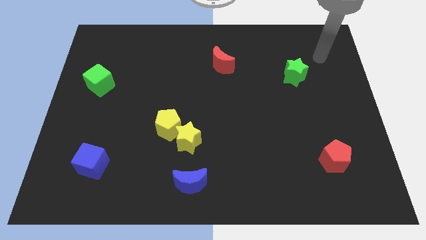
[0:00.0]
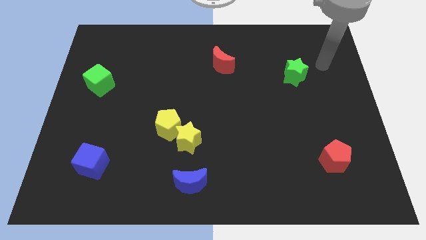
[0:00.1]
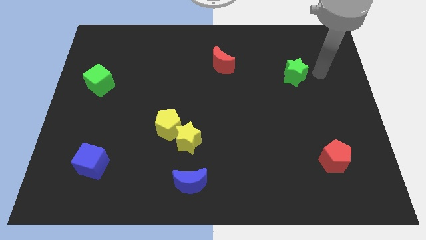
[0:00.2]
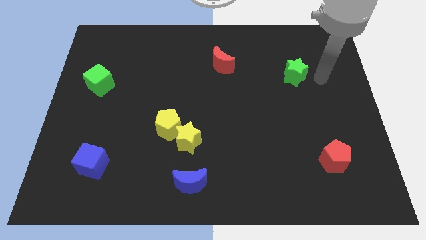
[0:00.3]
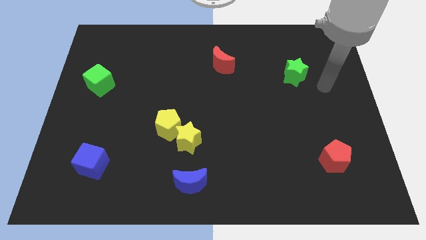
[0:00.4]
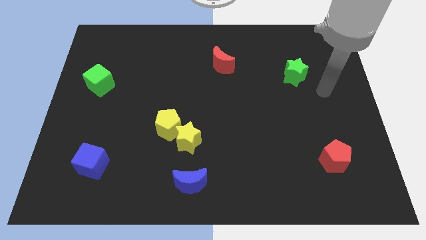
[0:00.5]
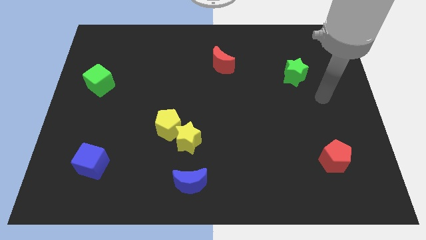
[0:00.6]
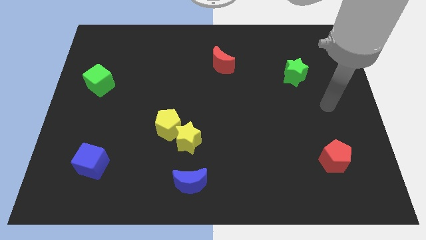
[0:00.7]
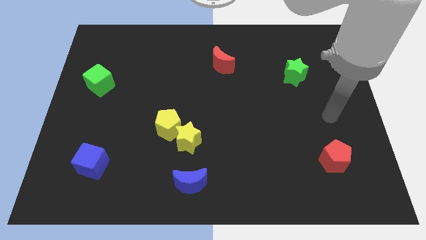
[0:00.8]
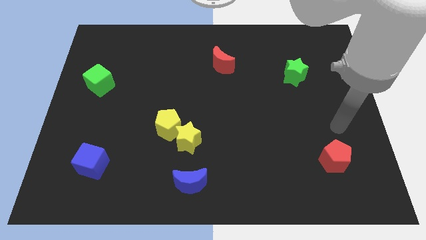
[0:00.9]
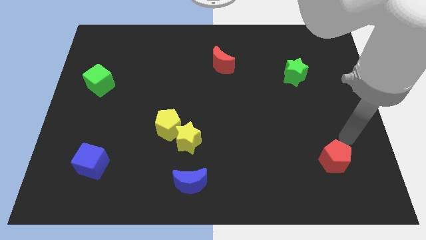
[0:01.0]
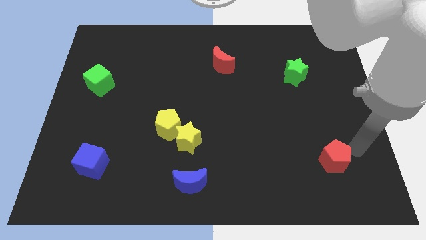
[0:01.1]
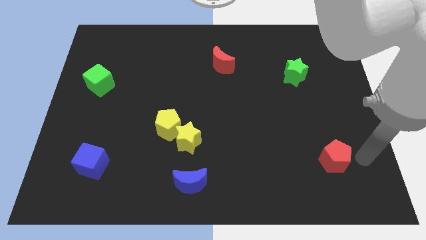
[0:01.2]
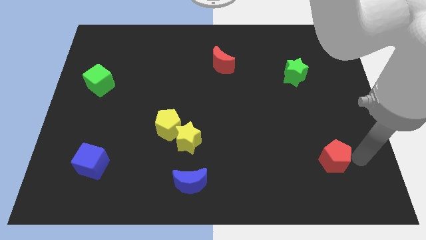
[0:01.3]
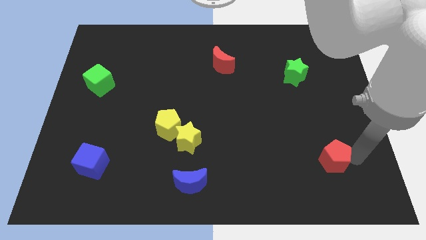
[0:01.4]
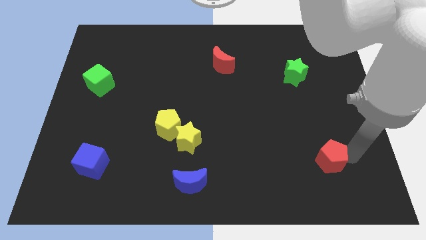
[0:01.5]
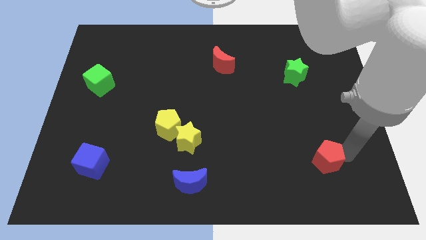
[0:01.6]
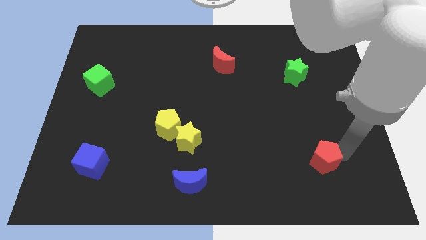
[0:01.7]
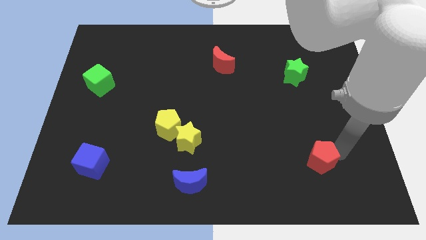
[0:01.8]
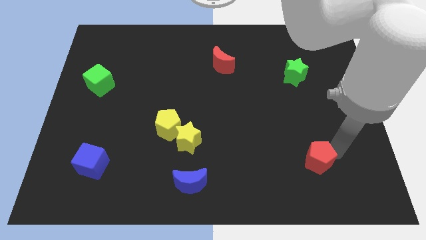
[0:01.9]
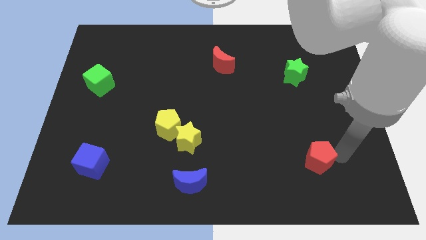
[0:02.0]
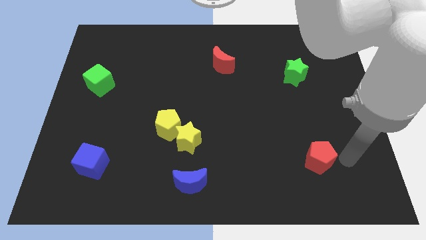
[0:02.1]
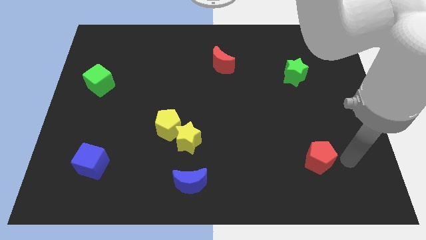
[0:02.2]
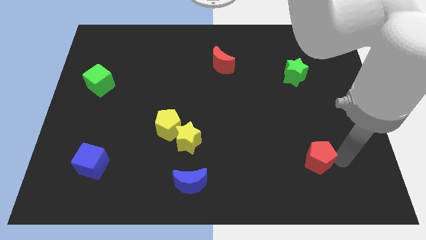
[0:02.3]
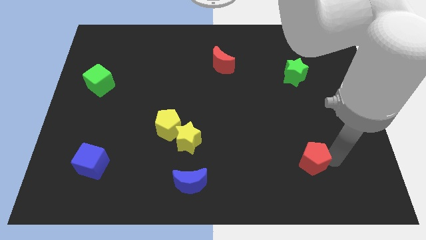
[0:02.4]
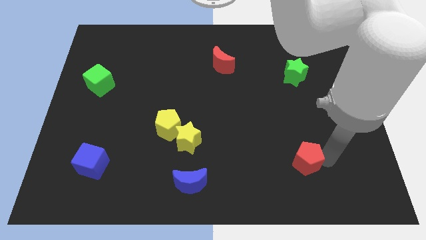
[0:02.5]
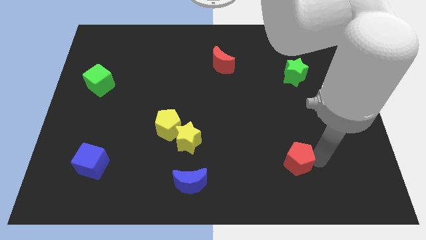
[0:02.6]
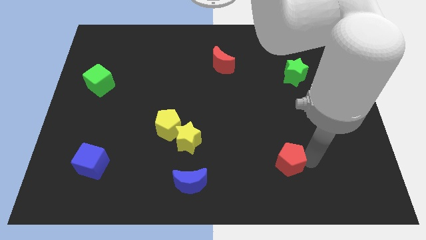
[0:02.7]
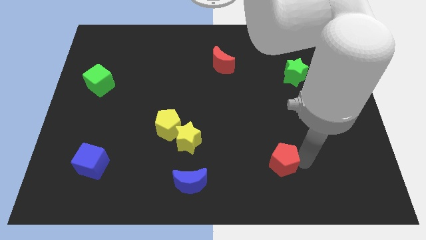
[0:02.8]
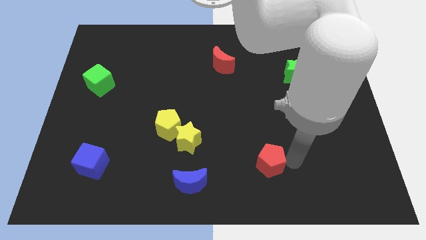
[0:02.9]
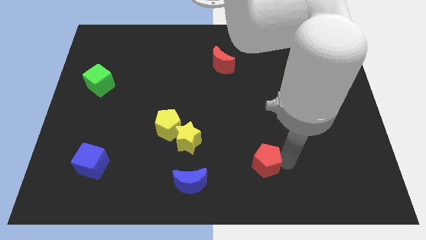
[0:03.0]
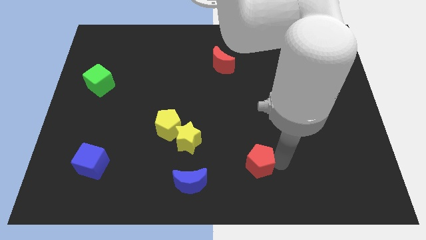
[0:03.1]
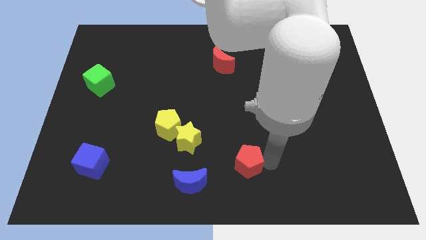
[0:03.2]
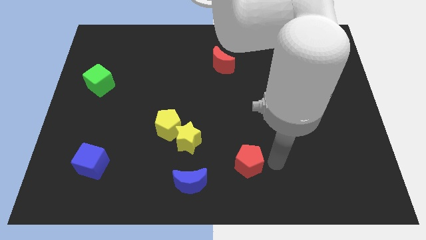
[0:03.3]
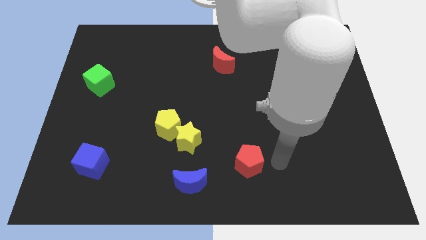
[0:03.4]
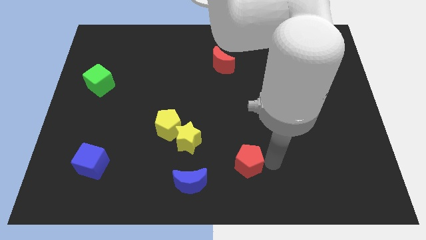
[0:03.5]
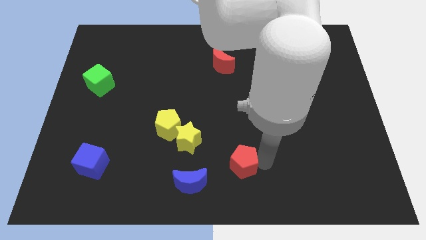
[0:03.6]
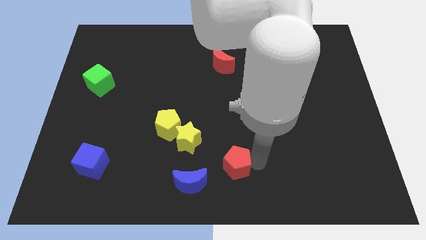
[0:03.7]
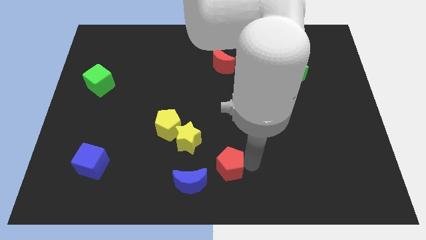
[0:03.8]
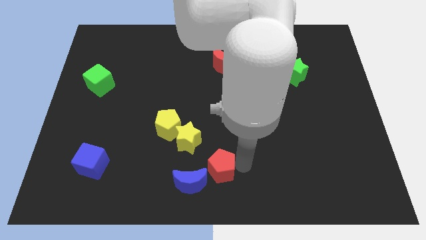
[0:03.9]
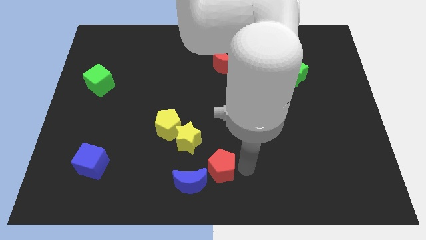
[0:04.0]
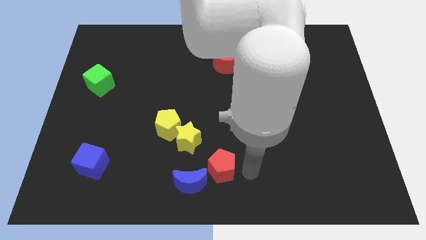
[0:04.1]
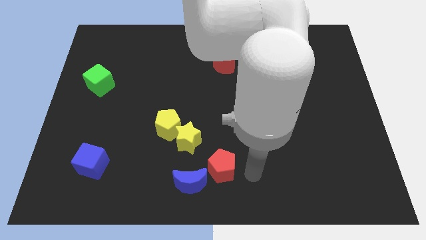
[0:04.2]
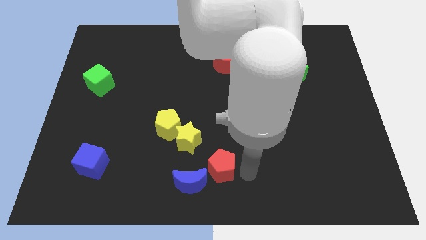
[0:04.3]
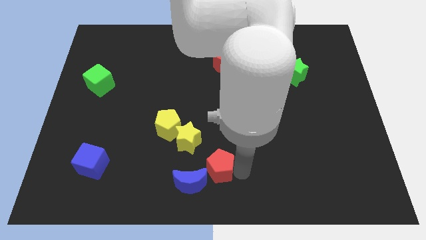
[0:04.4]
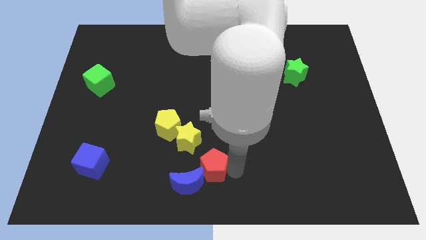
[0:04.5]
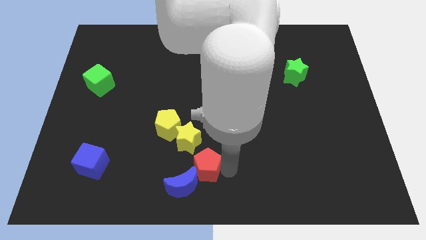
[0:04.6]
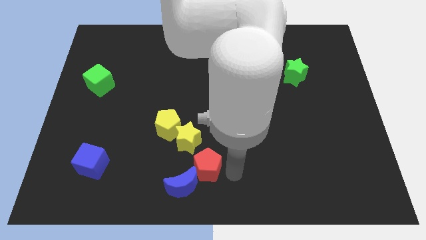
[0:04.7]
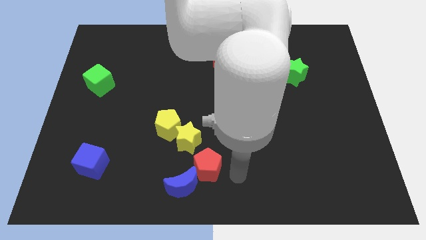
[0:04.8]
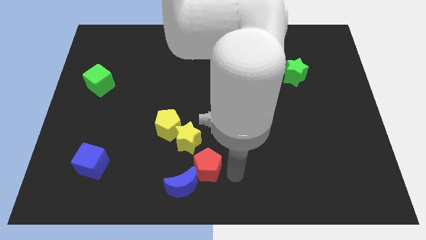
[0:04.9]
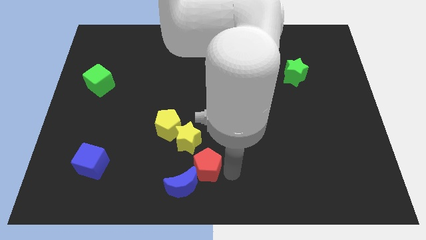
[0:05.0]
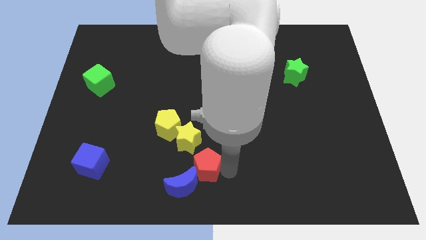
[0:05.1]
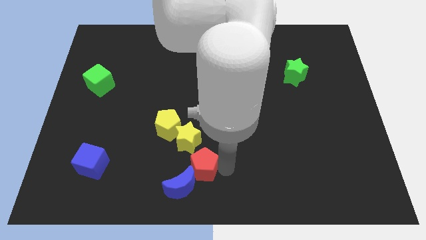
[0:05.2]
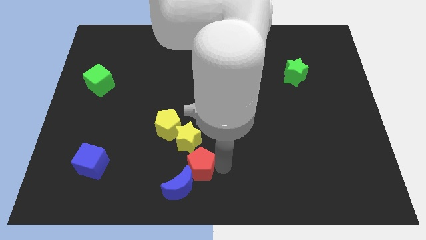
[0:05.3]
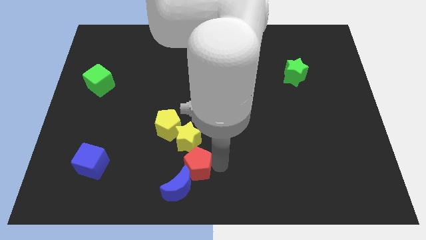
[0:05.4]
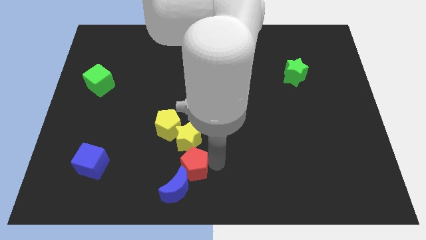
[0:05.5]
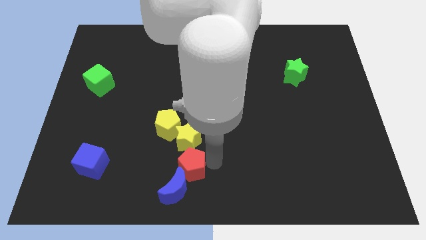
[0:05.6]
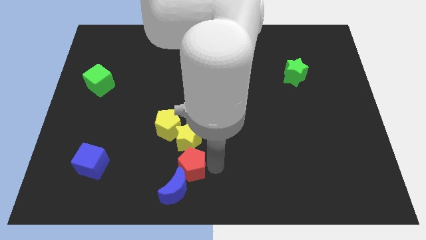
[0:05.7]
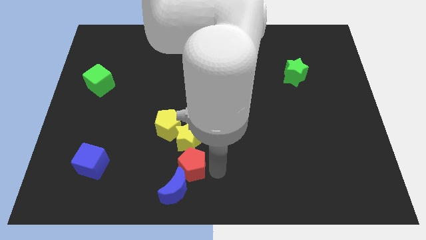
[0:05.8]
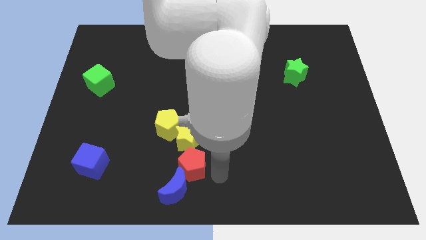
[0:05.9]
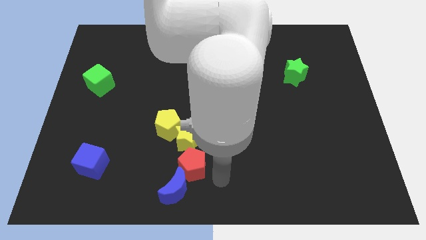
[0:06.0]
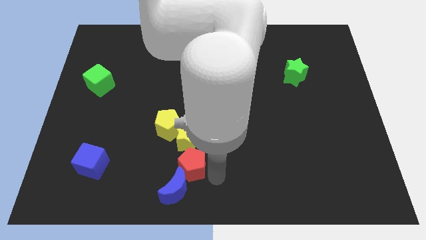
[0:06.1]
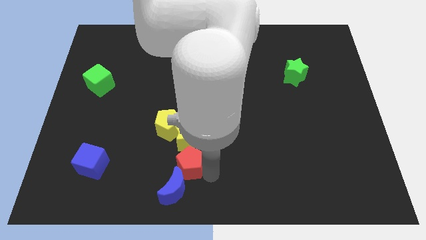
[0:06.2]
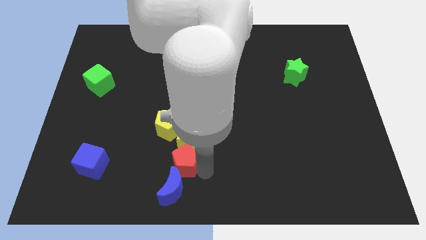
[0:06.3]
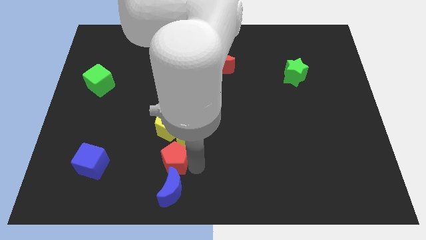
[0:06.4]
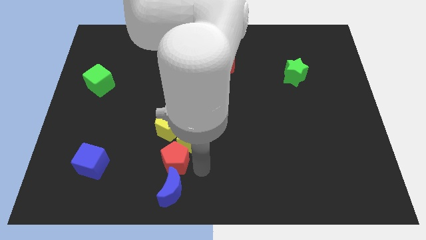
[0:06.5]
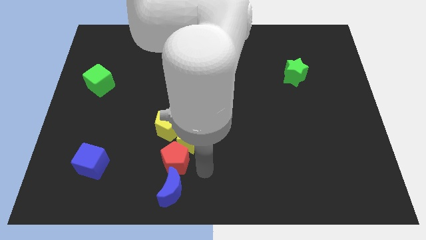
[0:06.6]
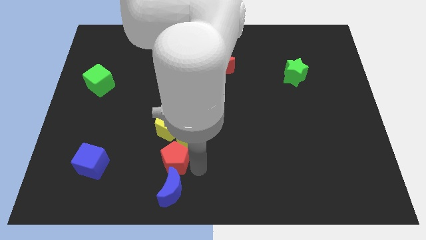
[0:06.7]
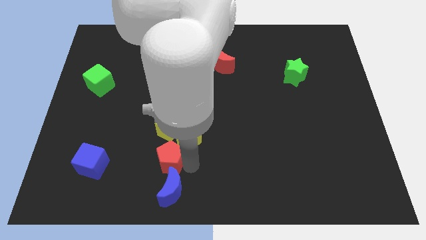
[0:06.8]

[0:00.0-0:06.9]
push the red pentagon left of the yellow star
